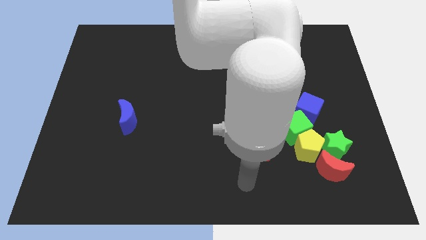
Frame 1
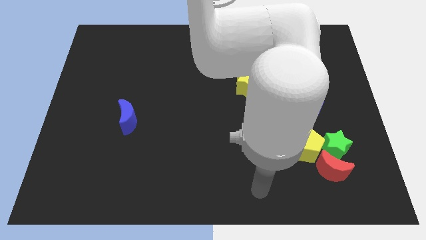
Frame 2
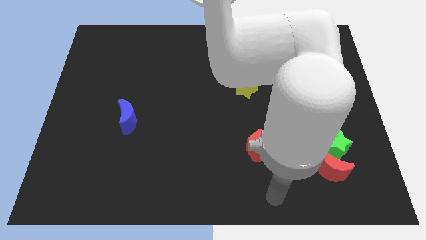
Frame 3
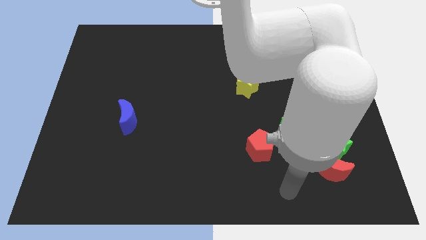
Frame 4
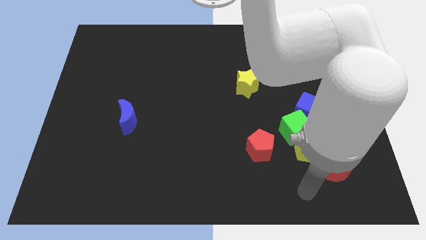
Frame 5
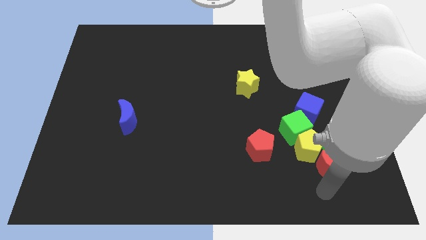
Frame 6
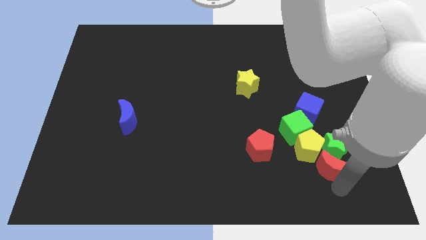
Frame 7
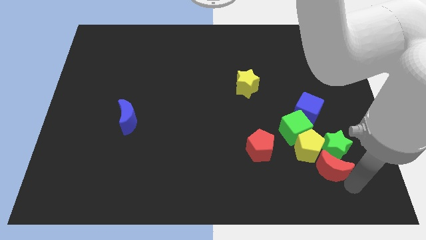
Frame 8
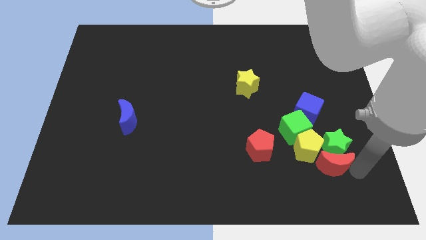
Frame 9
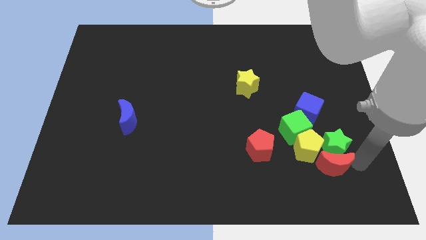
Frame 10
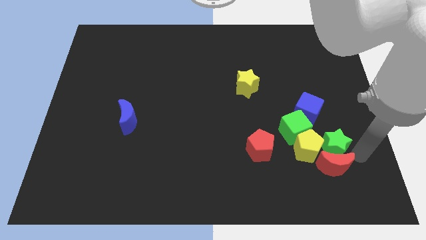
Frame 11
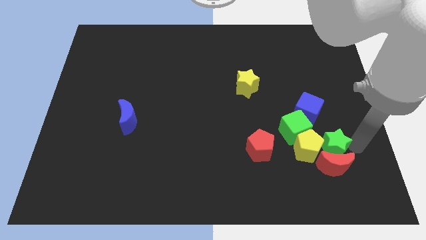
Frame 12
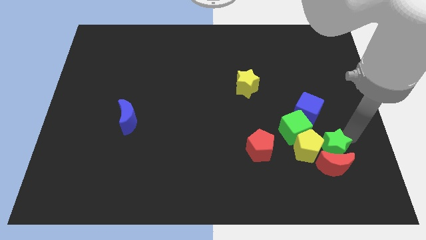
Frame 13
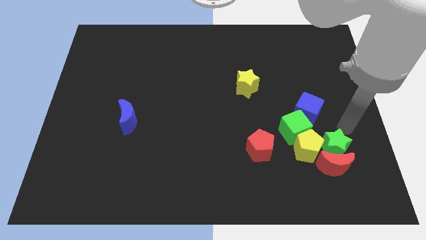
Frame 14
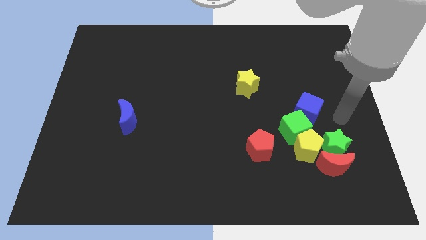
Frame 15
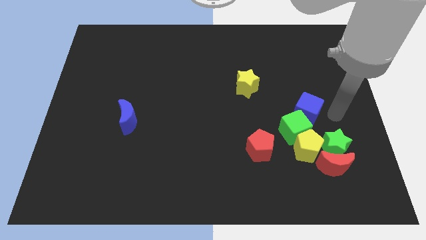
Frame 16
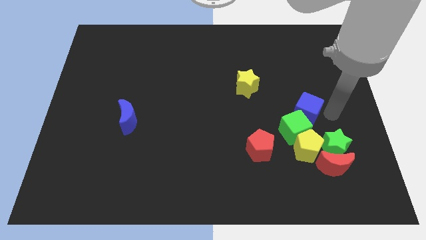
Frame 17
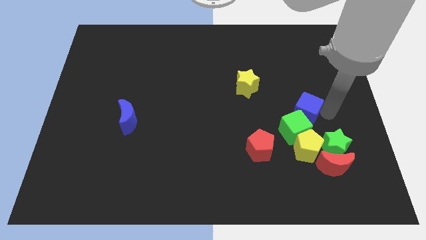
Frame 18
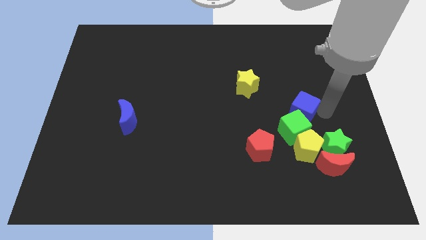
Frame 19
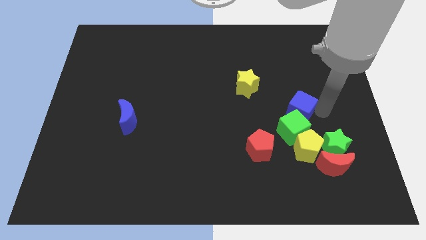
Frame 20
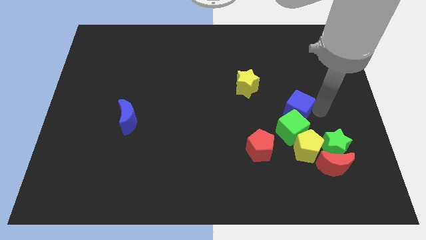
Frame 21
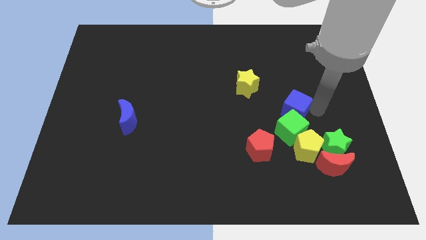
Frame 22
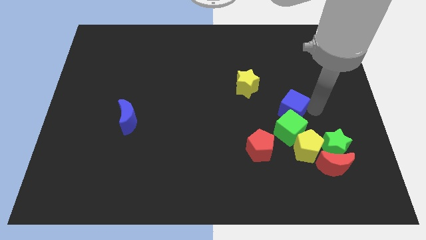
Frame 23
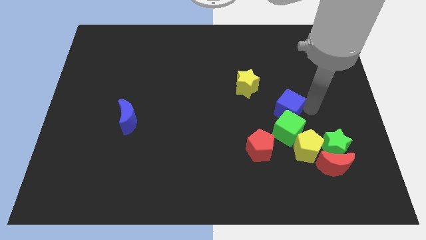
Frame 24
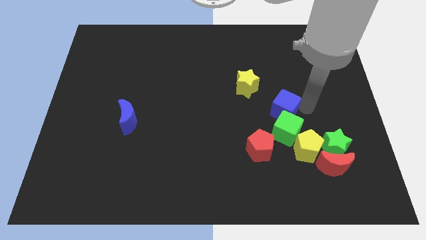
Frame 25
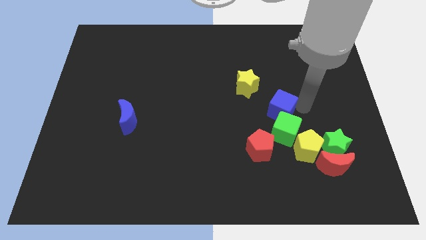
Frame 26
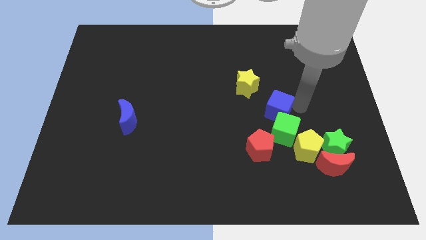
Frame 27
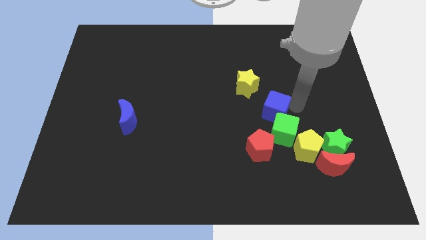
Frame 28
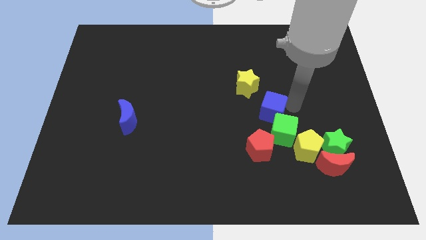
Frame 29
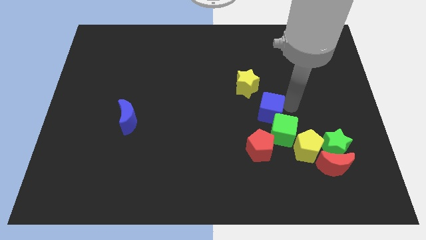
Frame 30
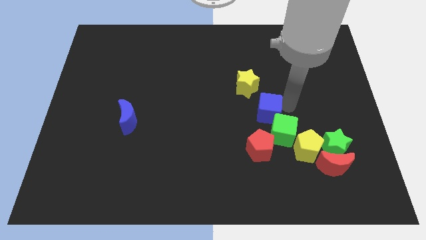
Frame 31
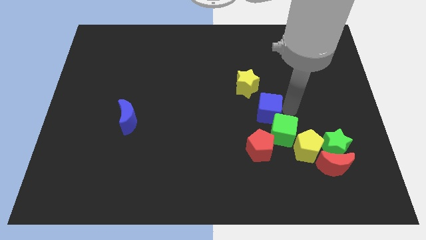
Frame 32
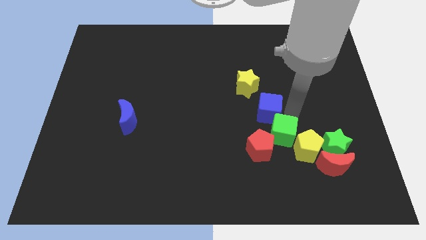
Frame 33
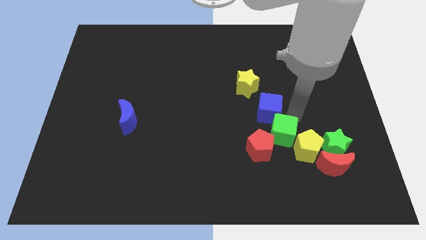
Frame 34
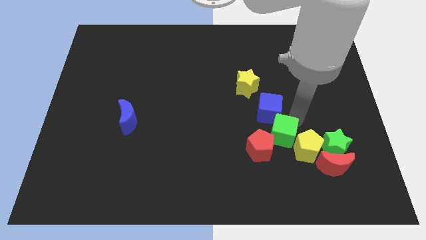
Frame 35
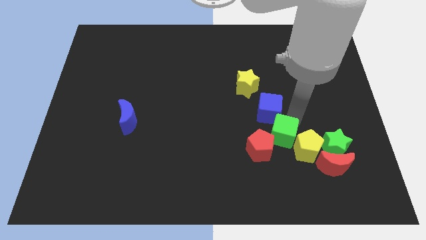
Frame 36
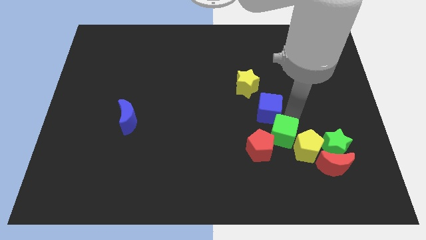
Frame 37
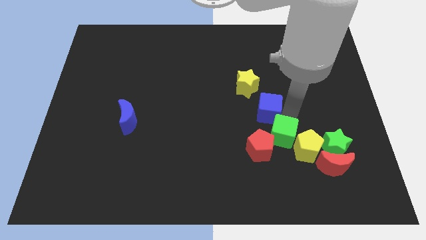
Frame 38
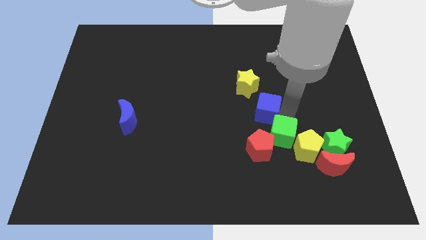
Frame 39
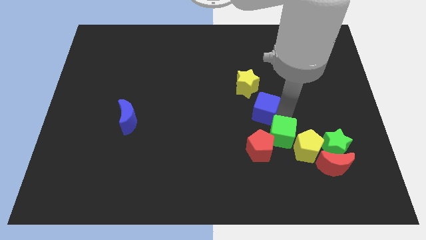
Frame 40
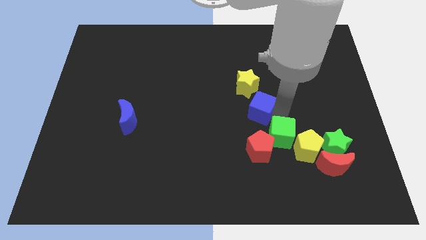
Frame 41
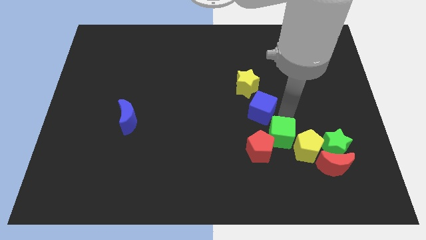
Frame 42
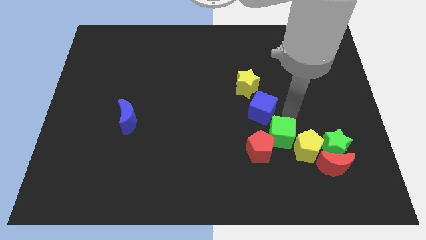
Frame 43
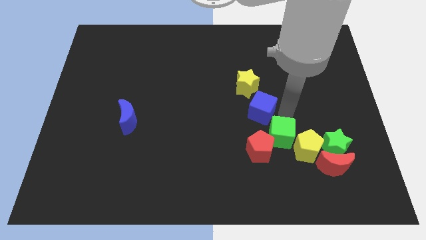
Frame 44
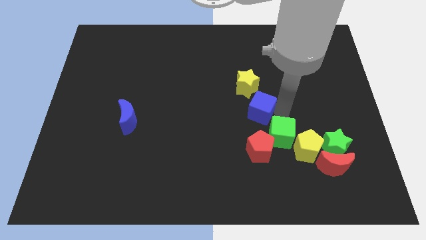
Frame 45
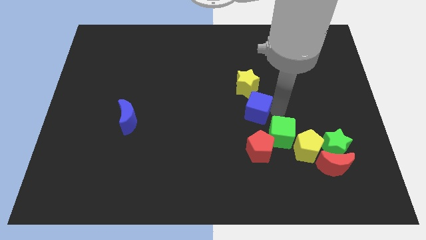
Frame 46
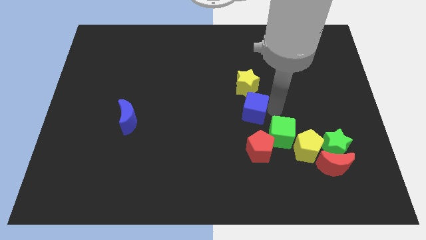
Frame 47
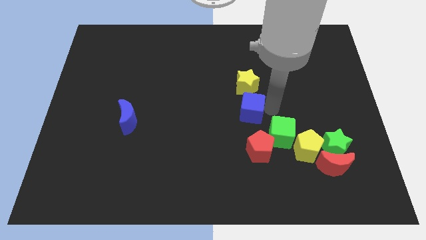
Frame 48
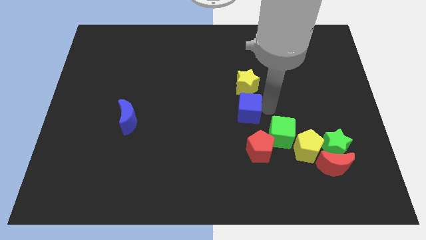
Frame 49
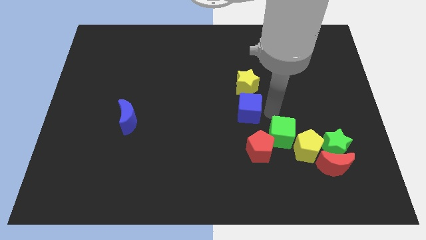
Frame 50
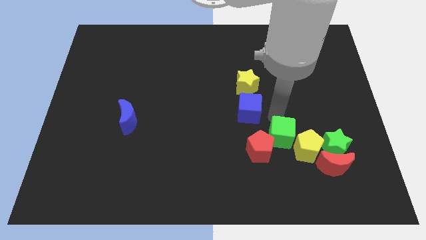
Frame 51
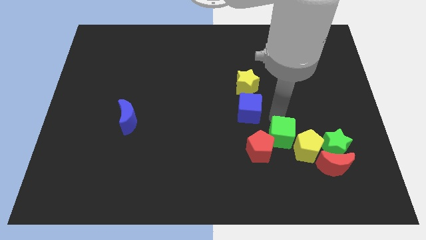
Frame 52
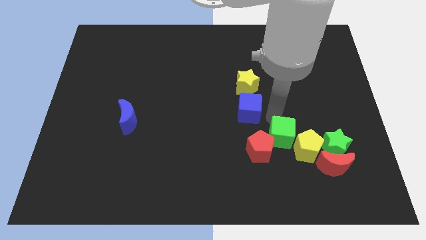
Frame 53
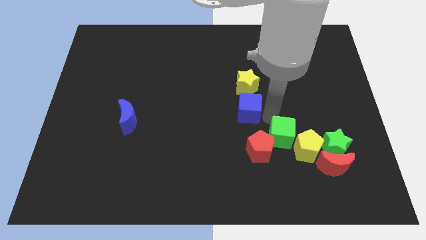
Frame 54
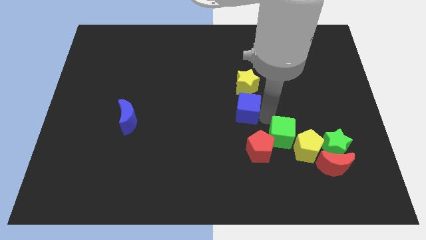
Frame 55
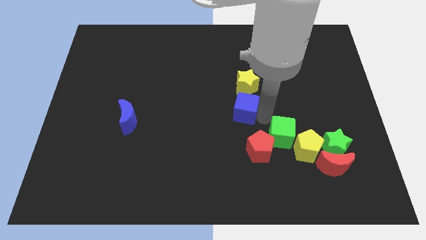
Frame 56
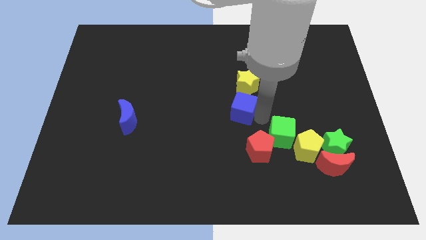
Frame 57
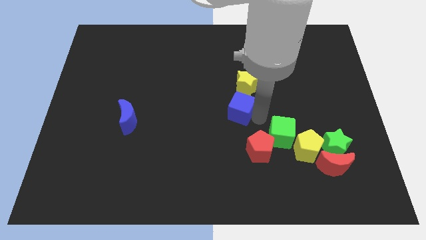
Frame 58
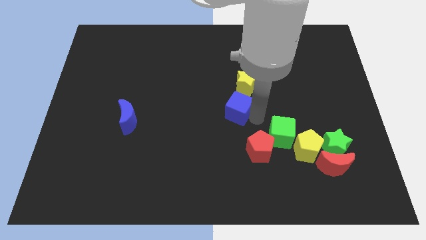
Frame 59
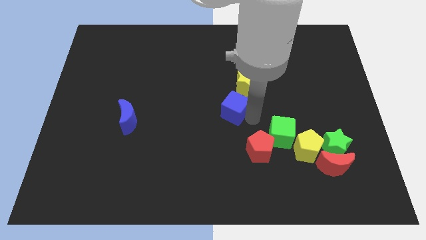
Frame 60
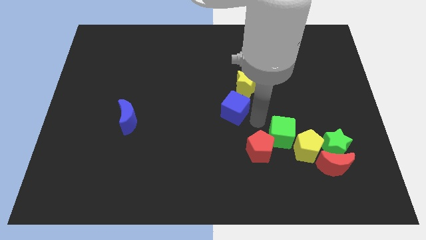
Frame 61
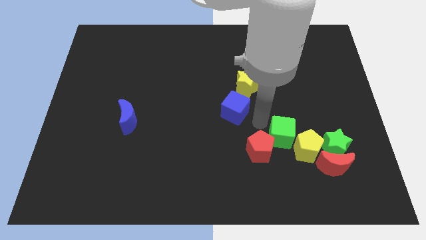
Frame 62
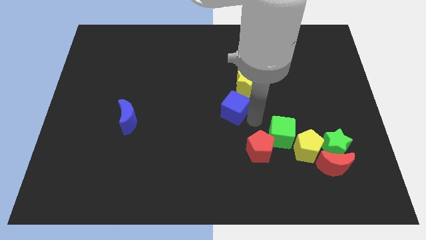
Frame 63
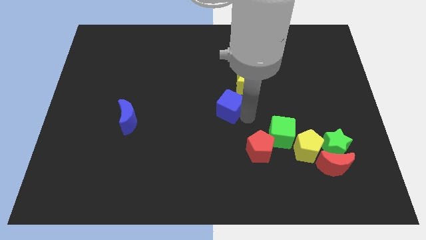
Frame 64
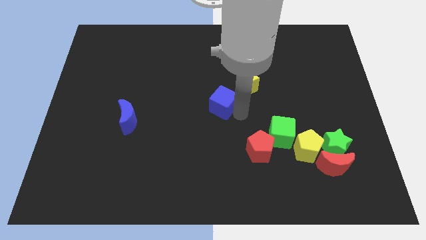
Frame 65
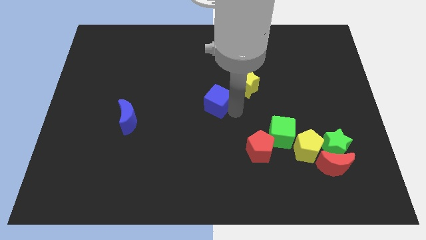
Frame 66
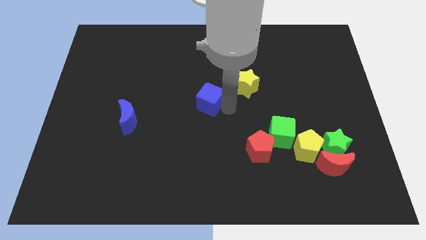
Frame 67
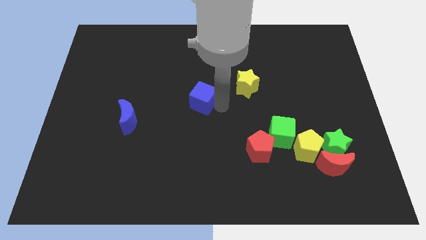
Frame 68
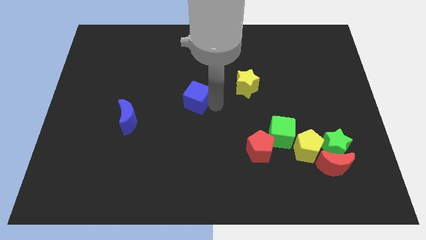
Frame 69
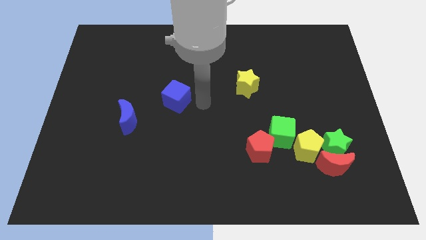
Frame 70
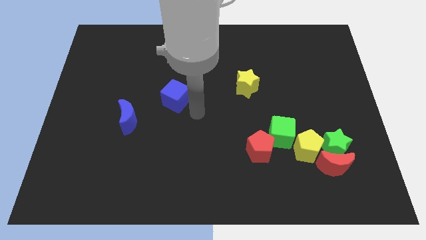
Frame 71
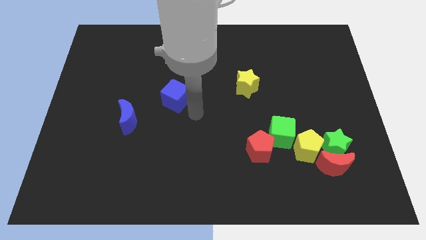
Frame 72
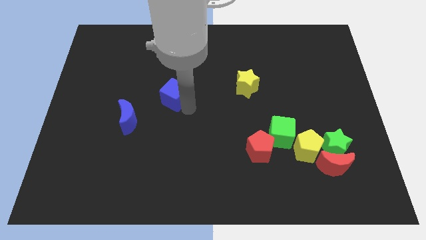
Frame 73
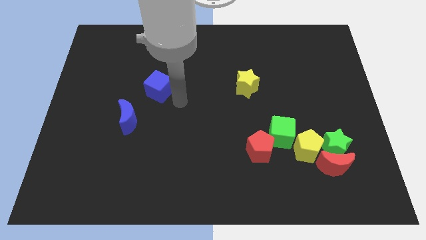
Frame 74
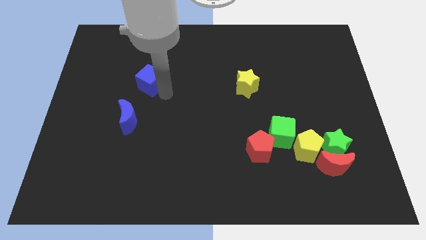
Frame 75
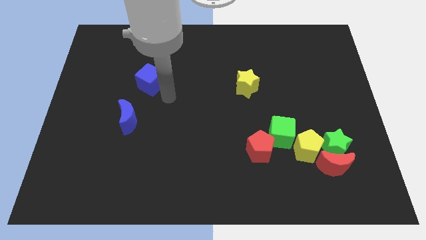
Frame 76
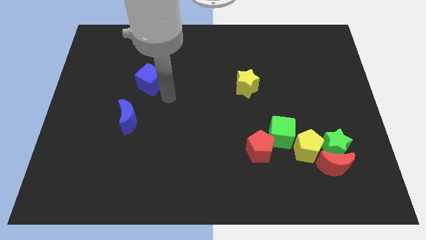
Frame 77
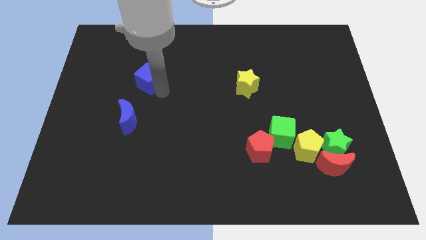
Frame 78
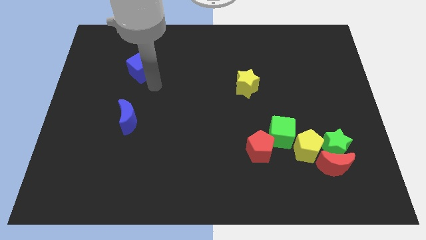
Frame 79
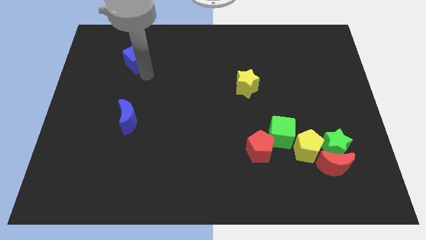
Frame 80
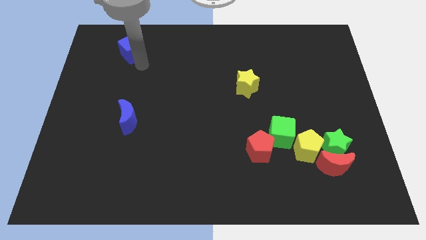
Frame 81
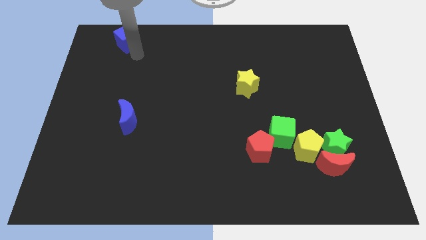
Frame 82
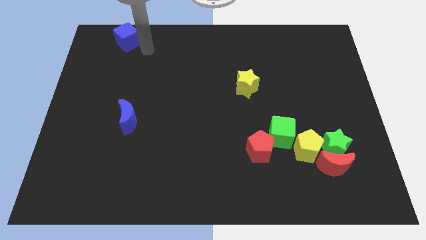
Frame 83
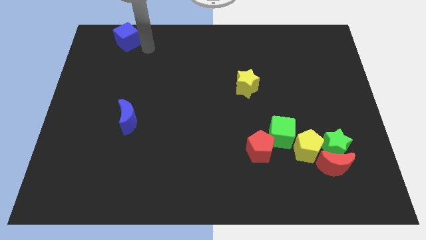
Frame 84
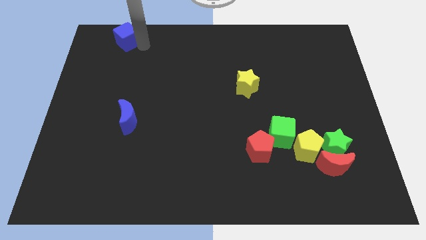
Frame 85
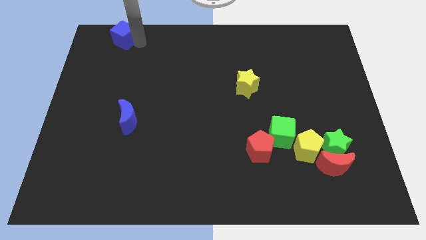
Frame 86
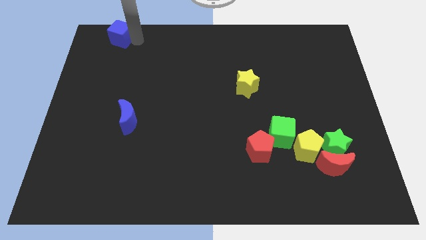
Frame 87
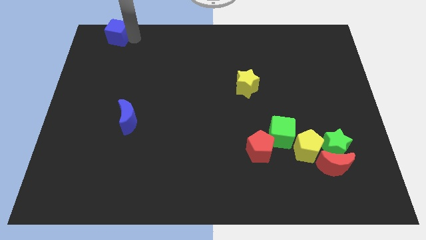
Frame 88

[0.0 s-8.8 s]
slide the blue cube to the top left corner
